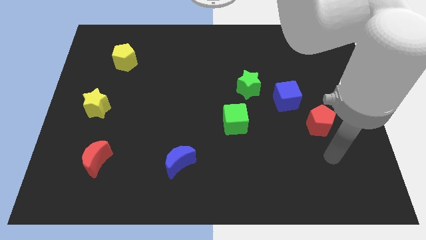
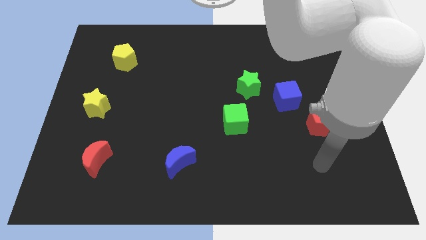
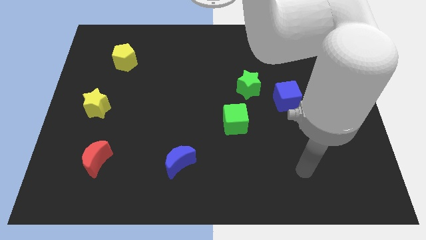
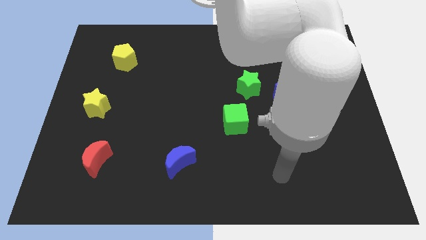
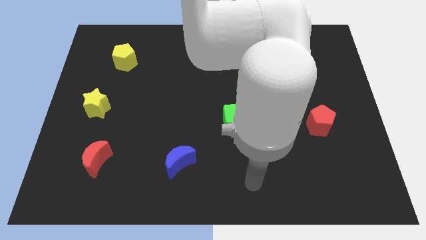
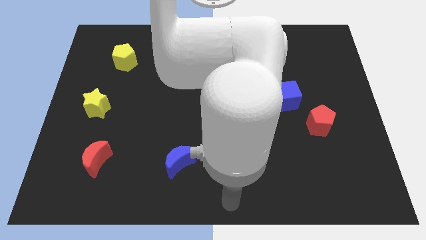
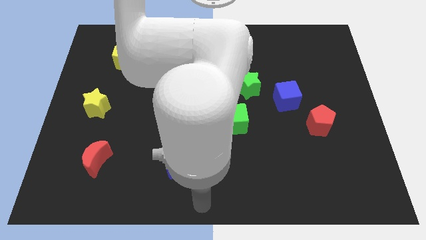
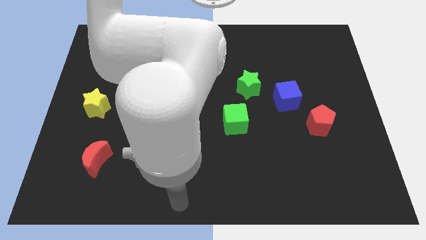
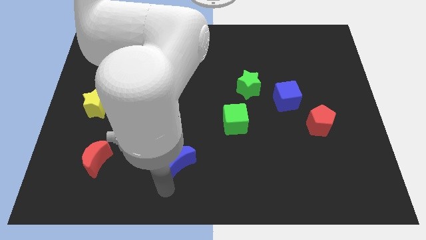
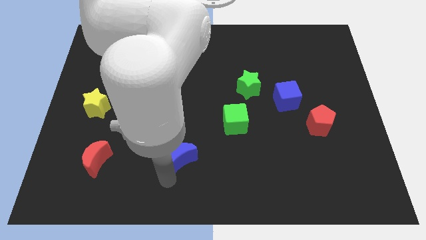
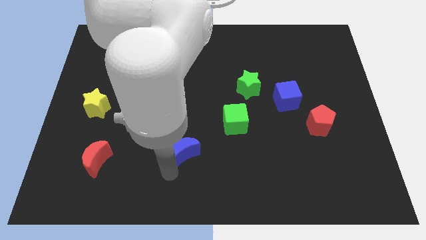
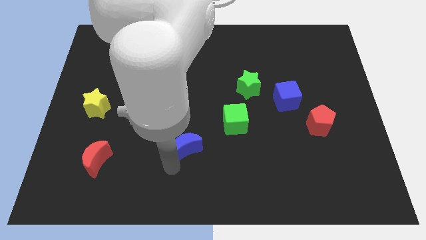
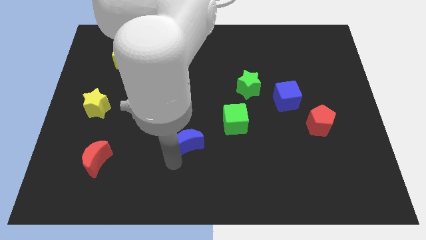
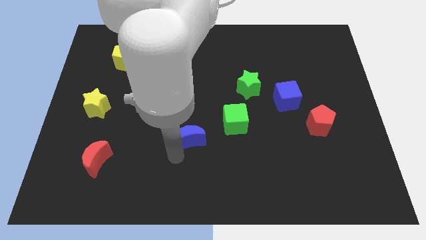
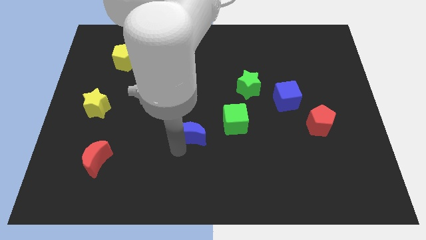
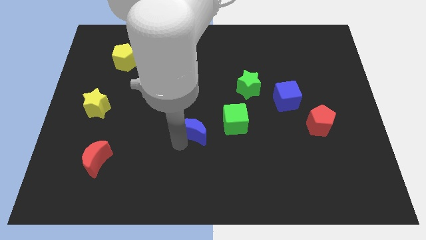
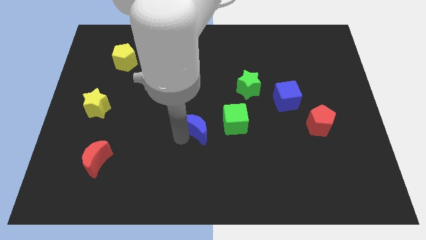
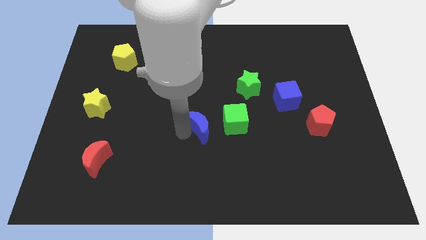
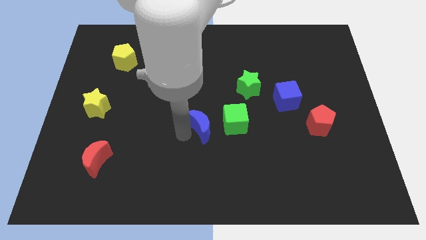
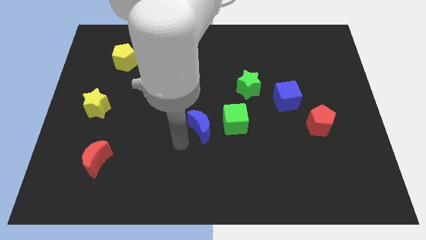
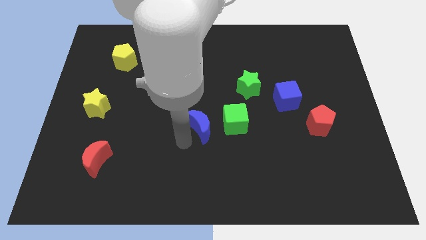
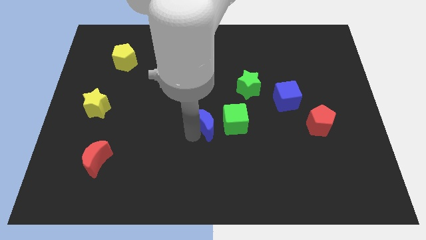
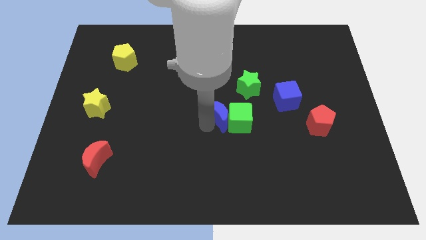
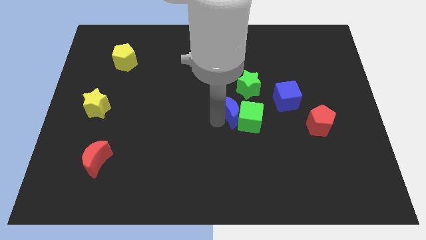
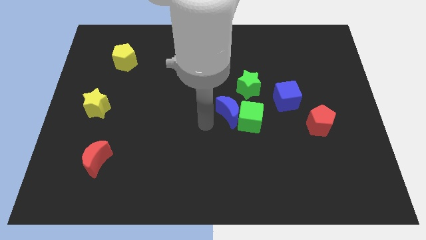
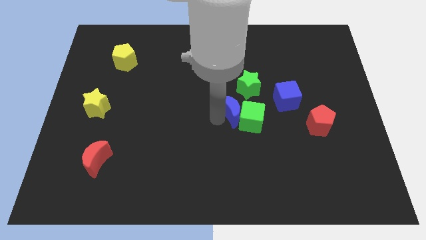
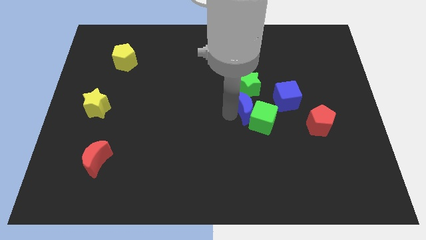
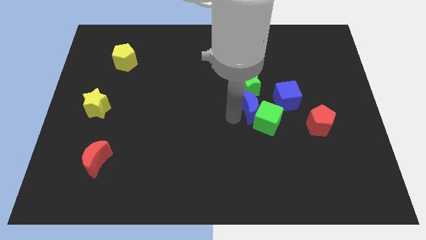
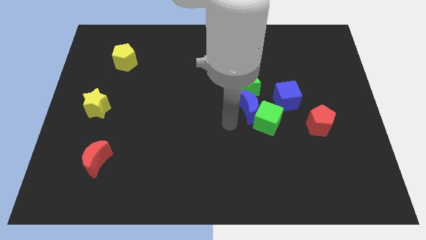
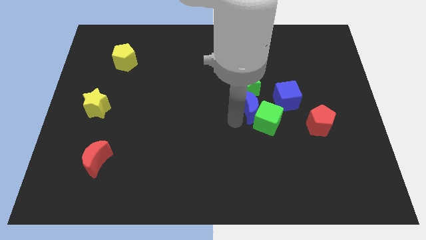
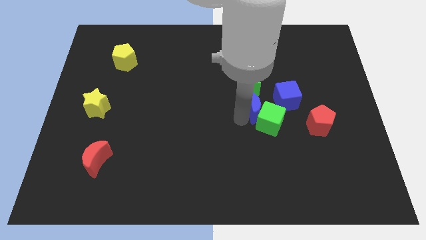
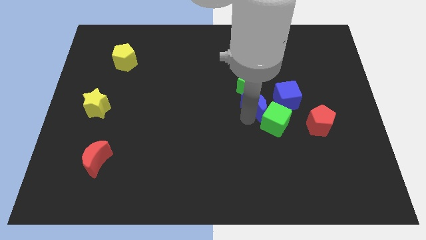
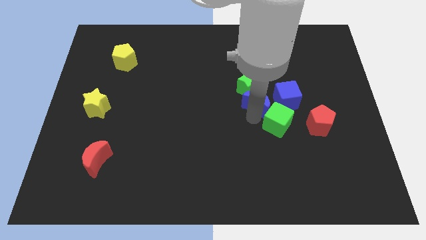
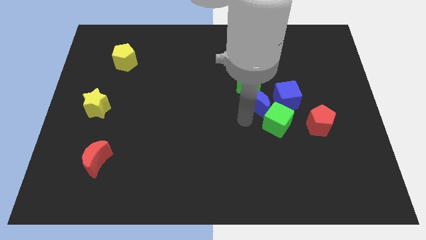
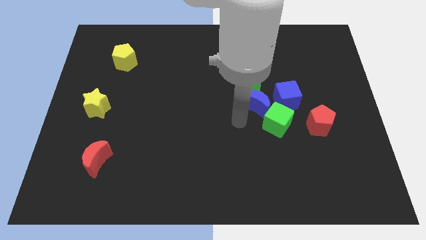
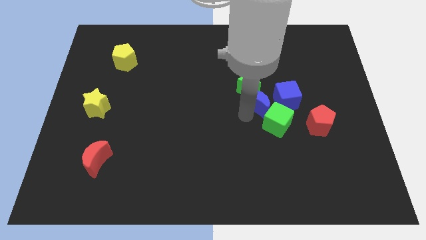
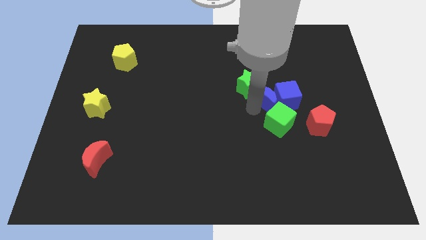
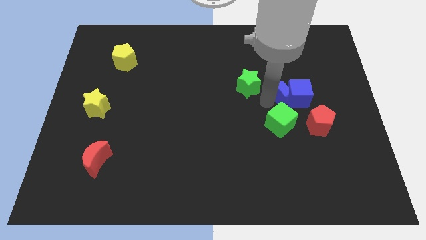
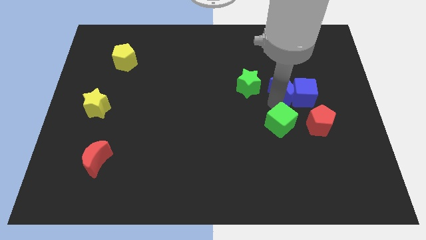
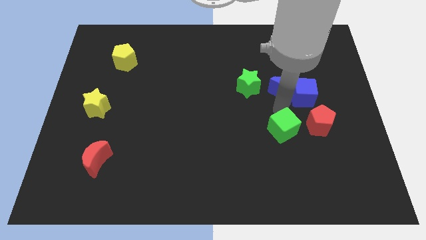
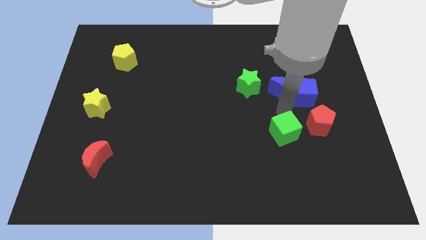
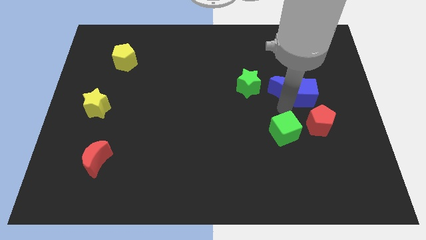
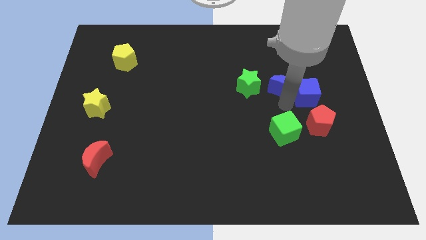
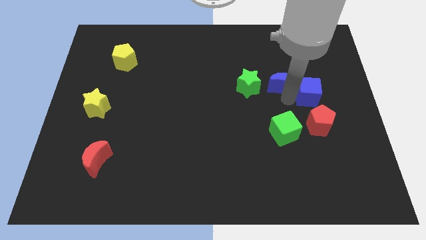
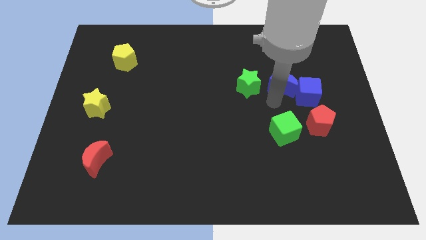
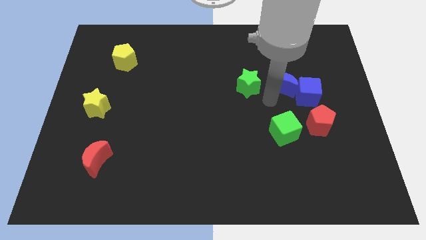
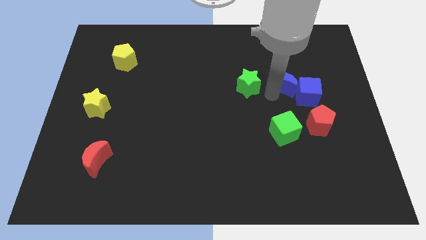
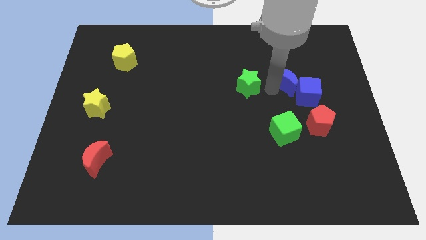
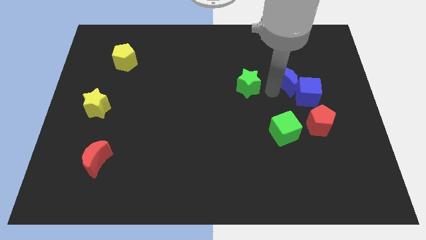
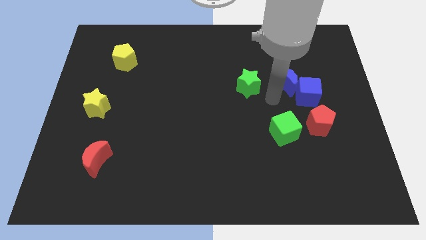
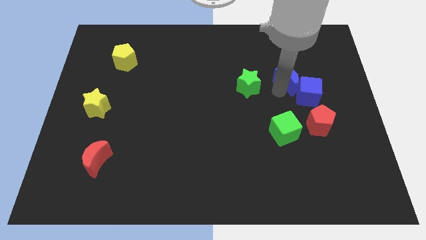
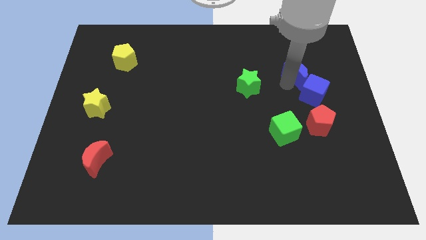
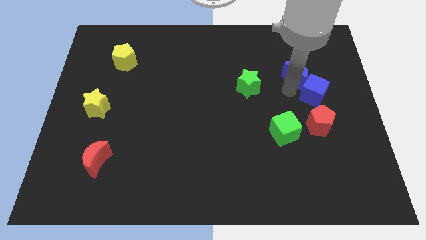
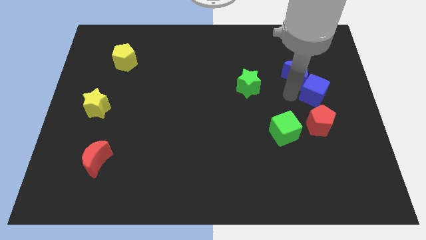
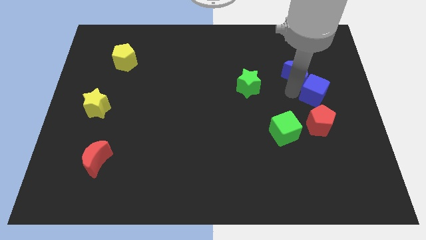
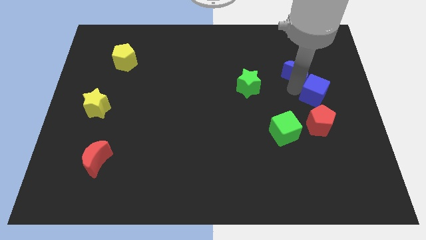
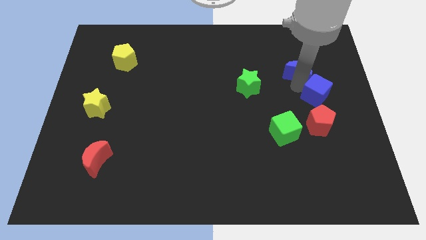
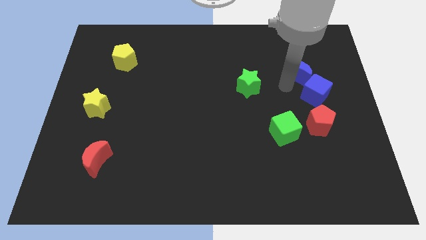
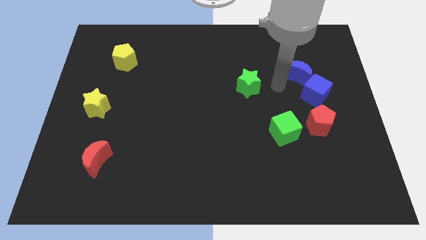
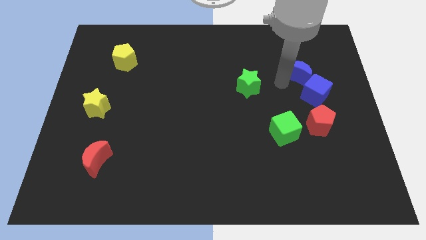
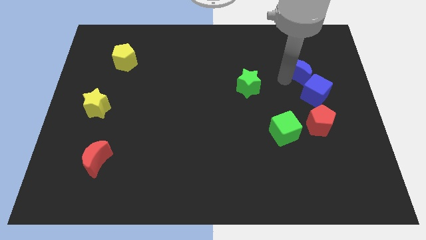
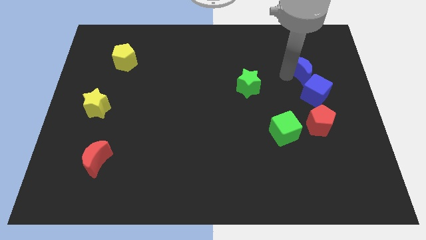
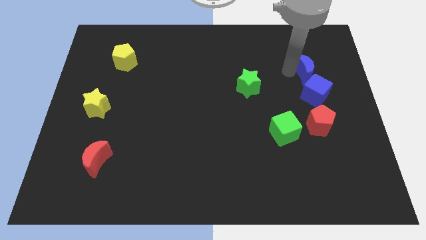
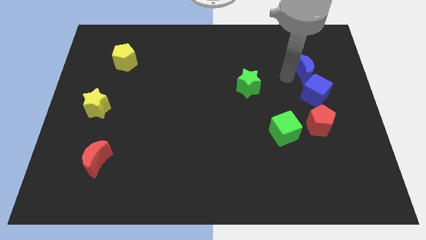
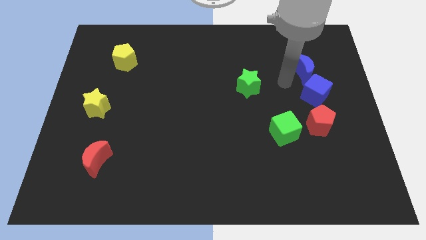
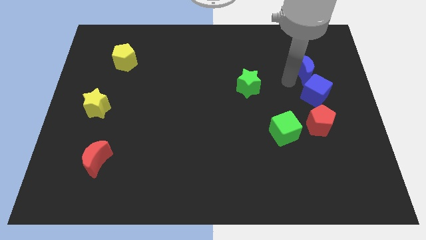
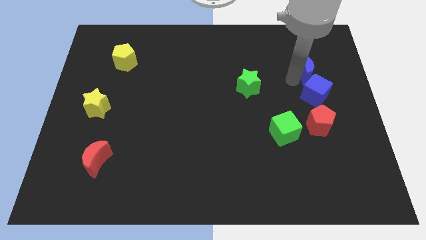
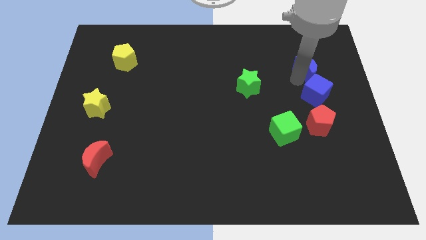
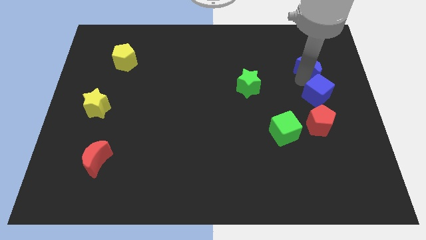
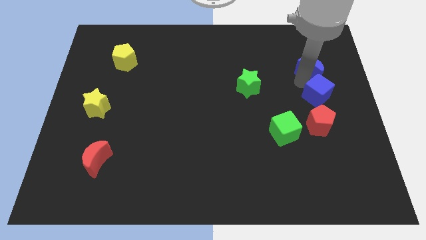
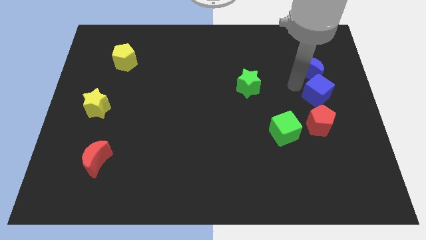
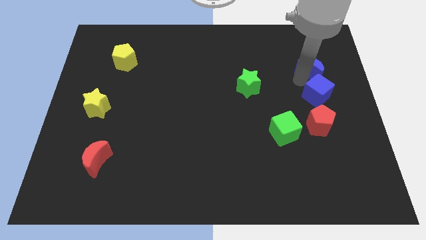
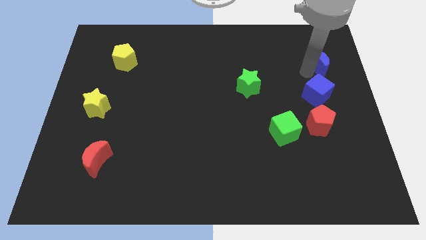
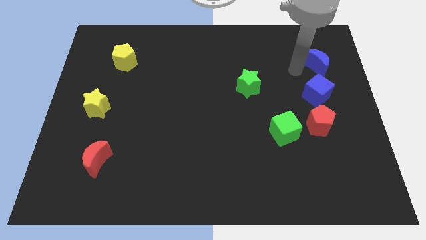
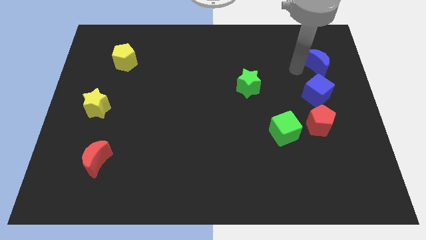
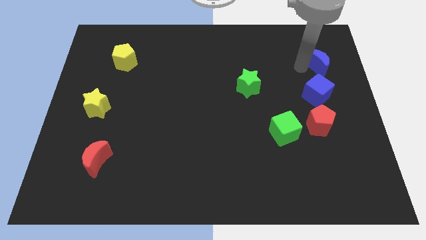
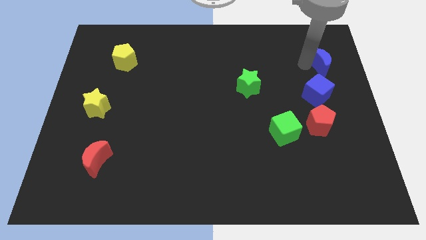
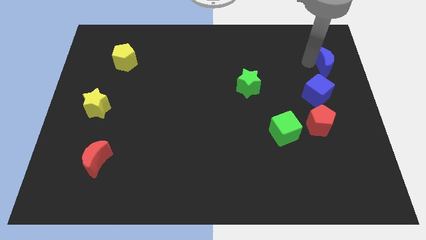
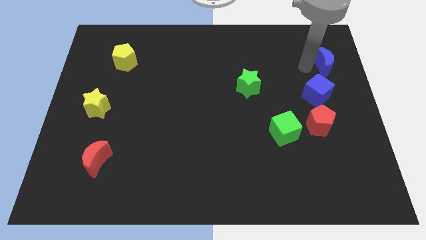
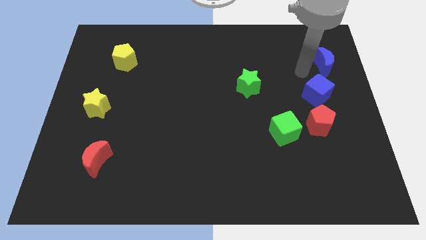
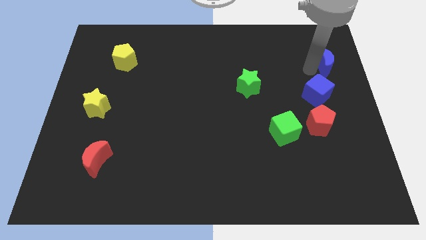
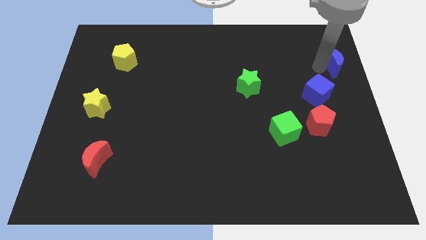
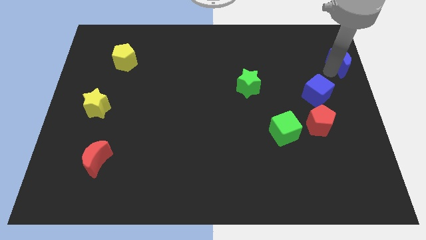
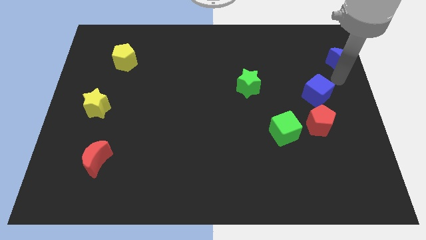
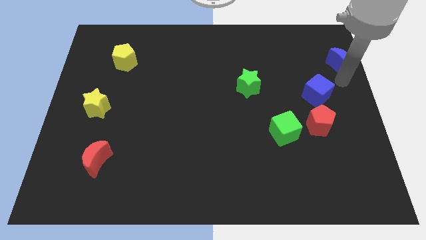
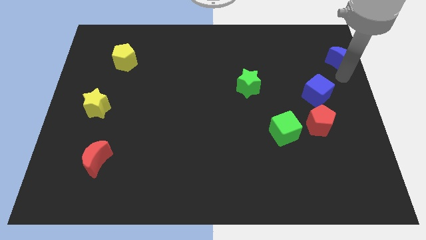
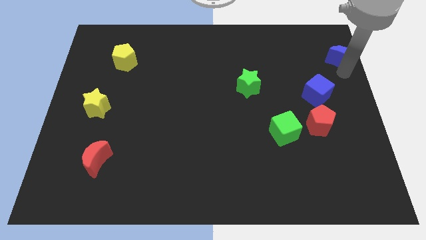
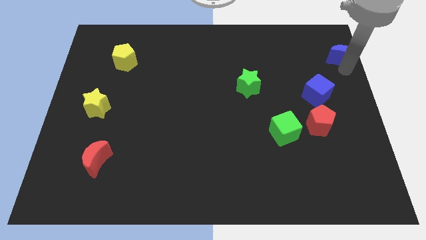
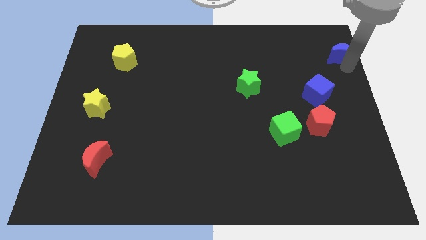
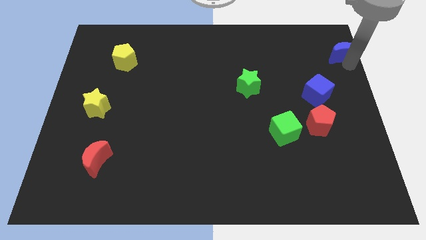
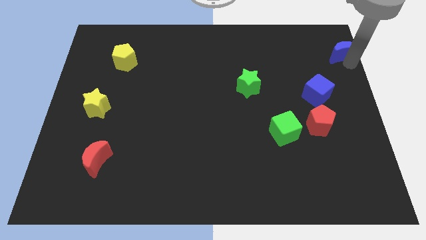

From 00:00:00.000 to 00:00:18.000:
slide the blue moon to the top right corner
